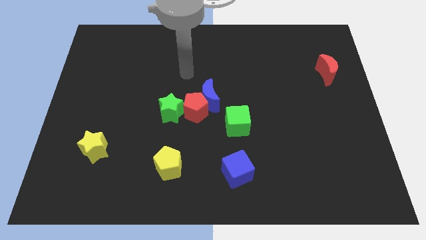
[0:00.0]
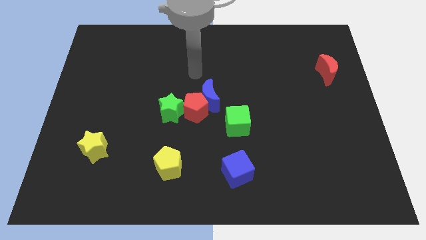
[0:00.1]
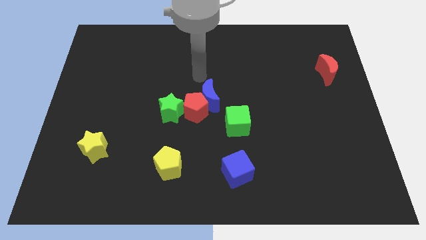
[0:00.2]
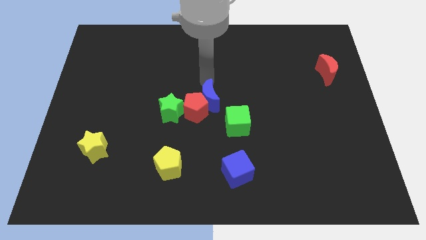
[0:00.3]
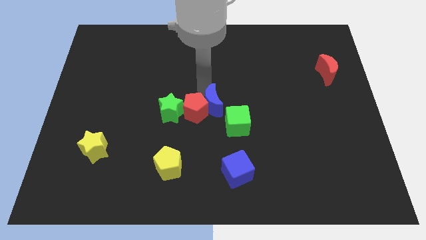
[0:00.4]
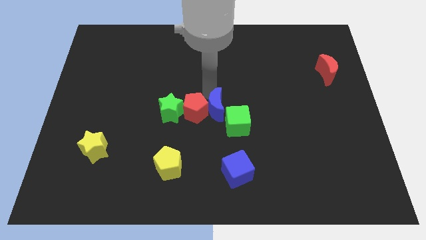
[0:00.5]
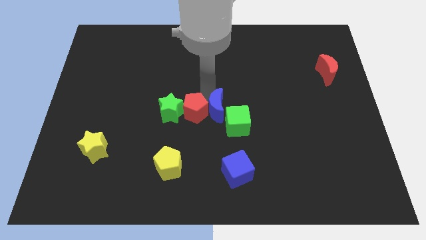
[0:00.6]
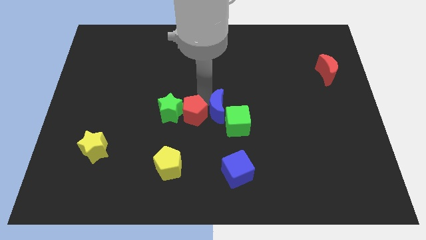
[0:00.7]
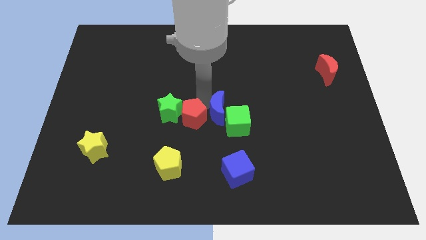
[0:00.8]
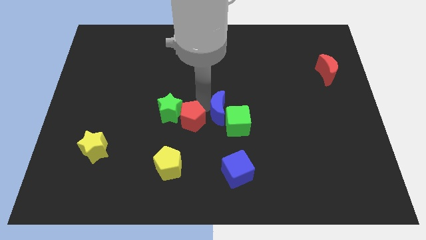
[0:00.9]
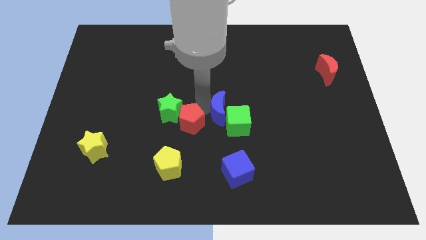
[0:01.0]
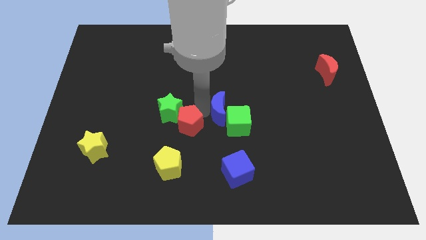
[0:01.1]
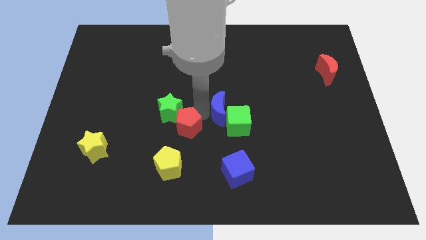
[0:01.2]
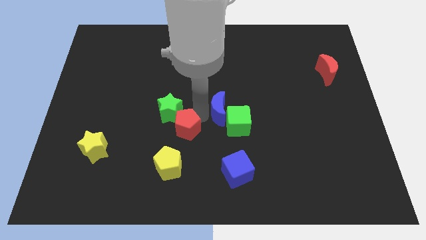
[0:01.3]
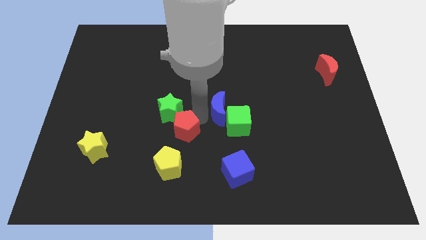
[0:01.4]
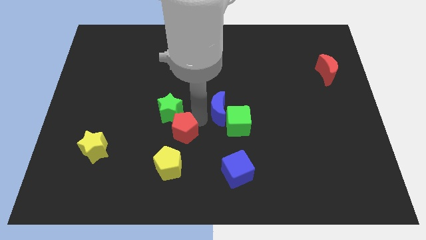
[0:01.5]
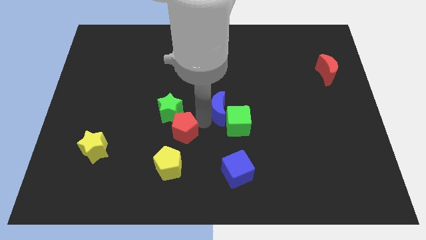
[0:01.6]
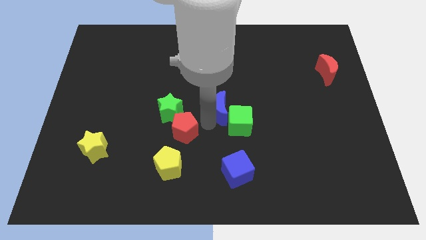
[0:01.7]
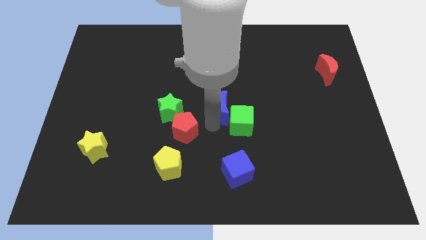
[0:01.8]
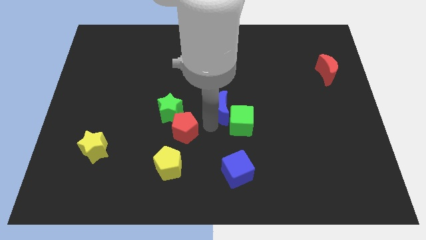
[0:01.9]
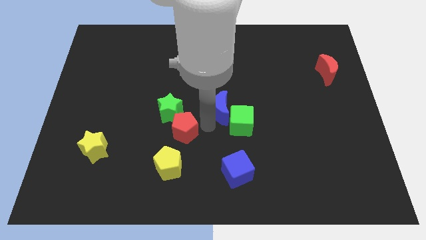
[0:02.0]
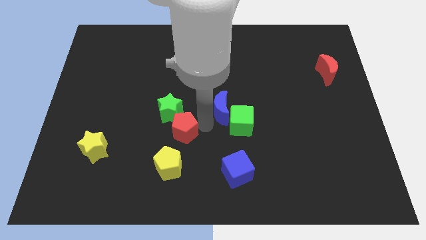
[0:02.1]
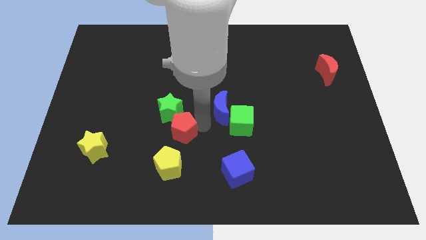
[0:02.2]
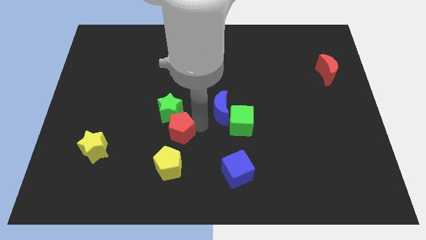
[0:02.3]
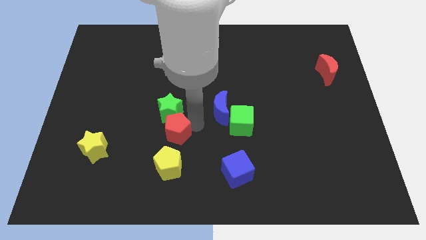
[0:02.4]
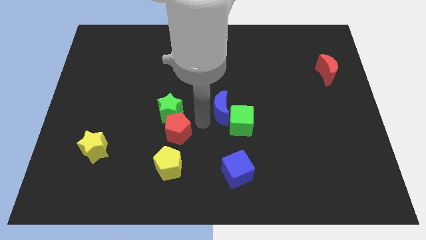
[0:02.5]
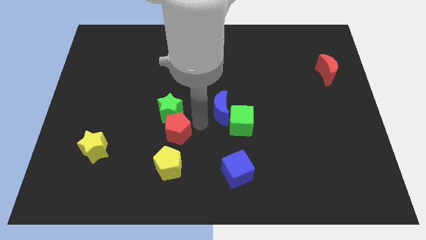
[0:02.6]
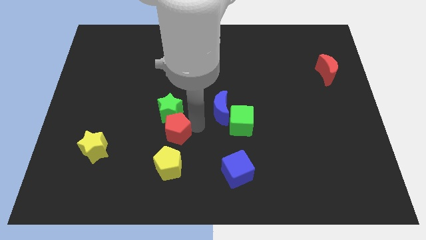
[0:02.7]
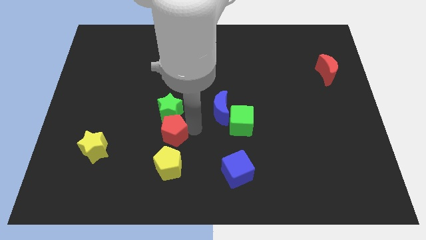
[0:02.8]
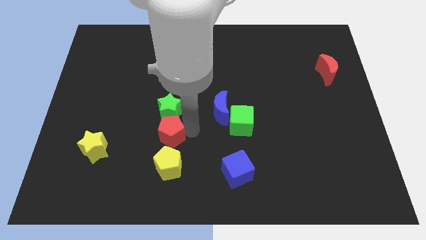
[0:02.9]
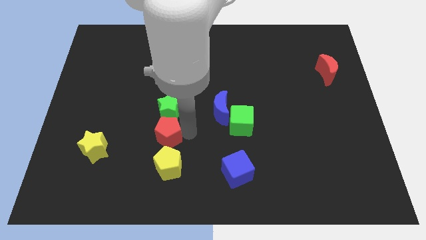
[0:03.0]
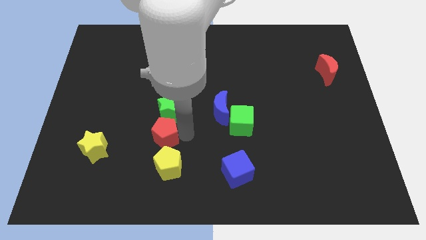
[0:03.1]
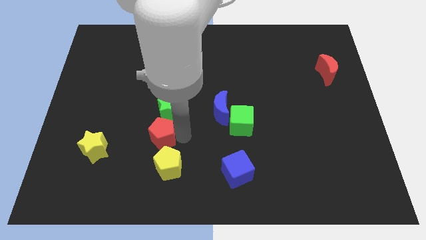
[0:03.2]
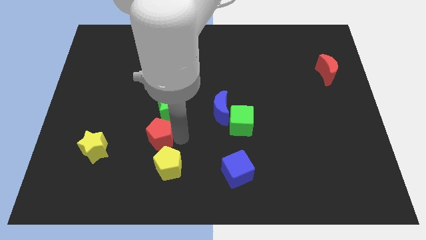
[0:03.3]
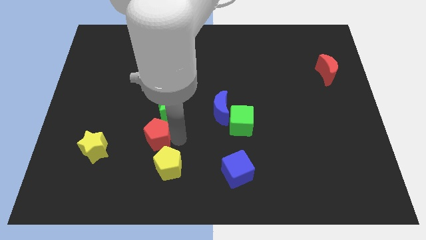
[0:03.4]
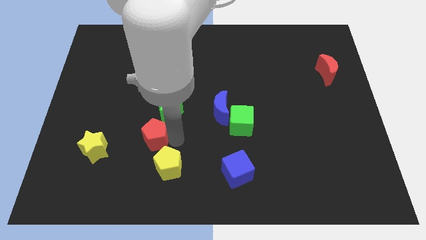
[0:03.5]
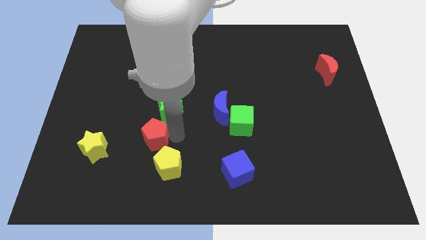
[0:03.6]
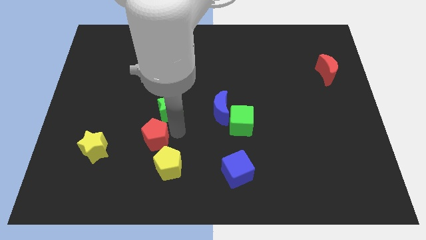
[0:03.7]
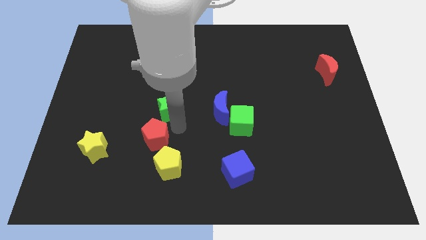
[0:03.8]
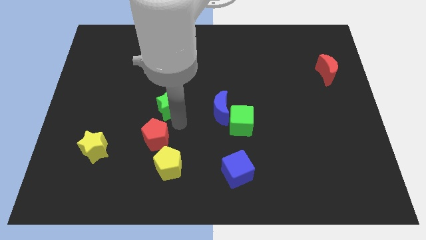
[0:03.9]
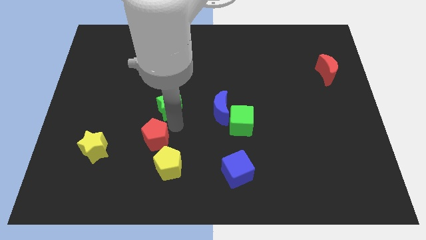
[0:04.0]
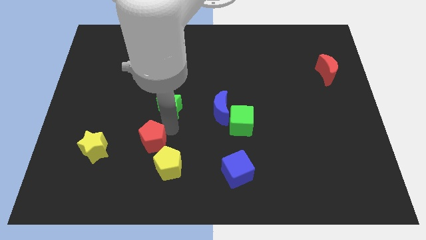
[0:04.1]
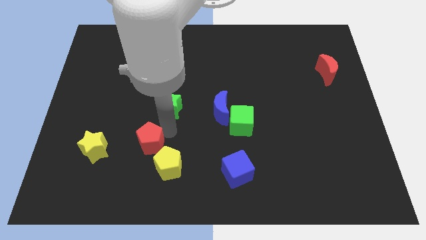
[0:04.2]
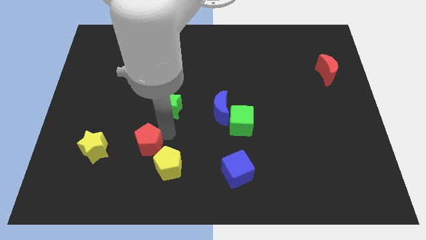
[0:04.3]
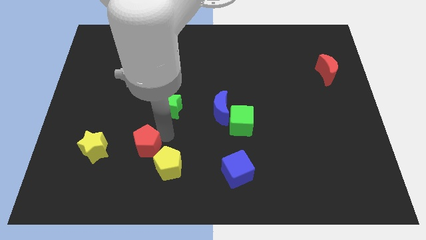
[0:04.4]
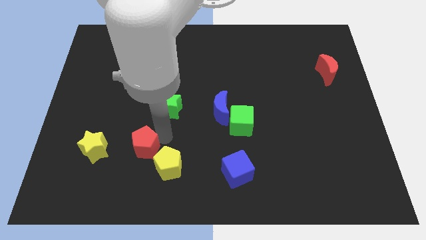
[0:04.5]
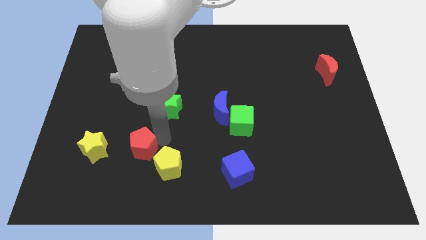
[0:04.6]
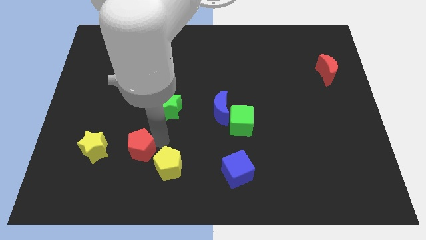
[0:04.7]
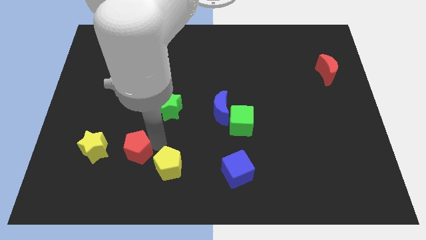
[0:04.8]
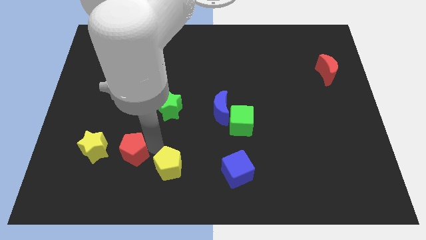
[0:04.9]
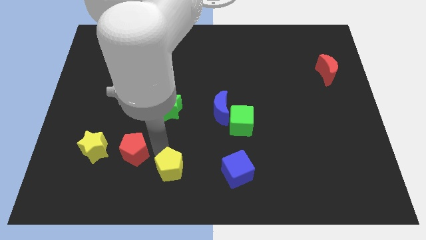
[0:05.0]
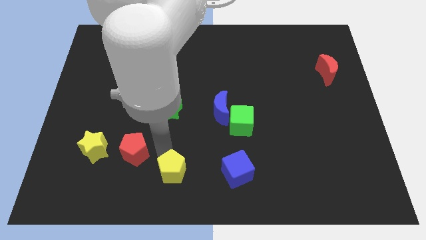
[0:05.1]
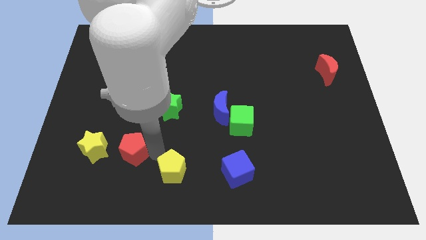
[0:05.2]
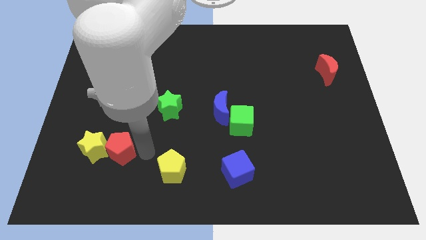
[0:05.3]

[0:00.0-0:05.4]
slide the red pentagon towards the yellow star

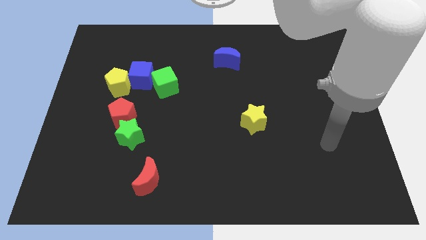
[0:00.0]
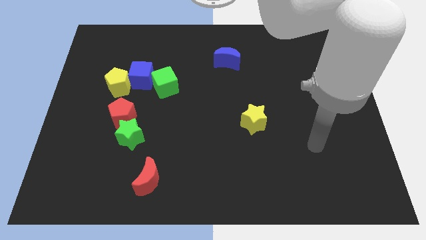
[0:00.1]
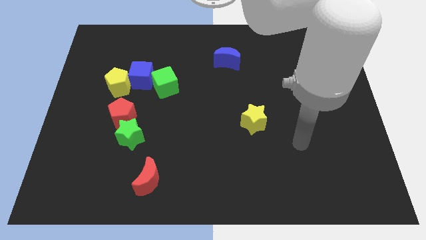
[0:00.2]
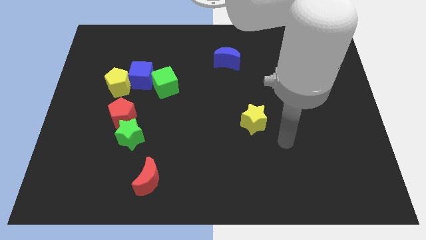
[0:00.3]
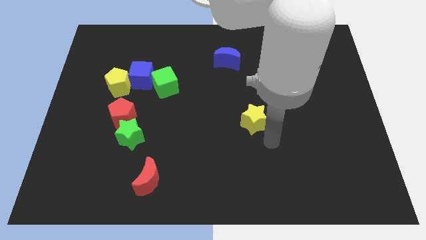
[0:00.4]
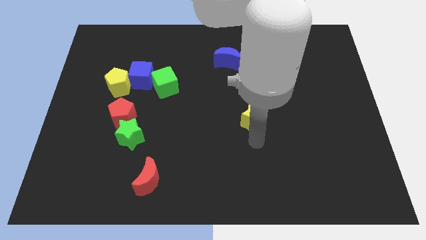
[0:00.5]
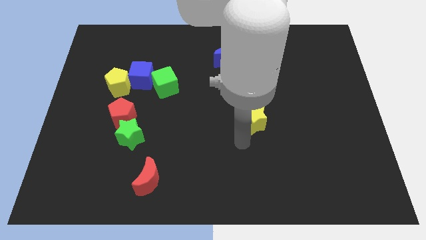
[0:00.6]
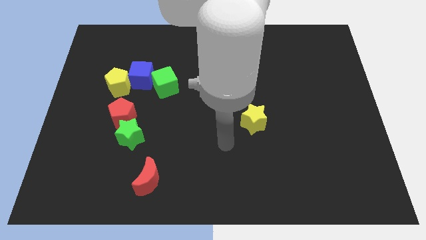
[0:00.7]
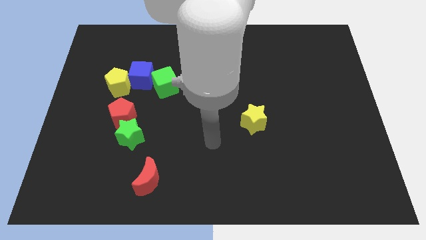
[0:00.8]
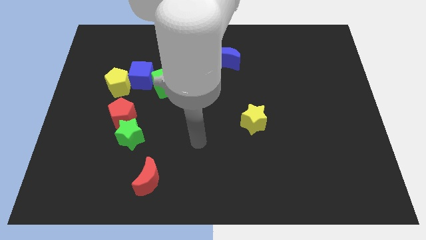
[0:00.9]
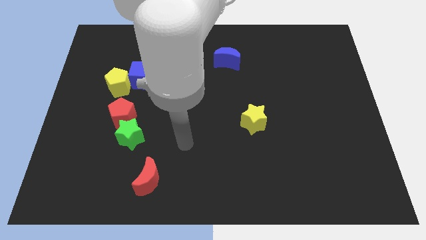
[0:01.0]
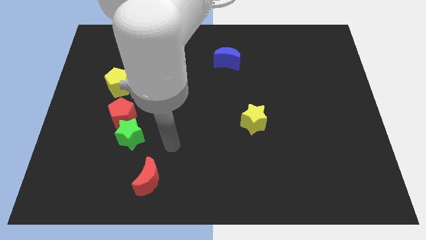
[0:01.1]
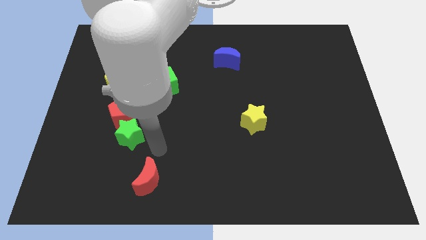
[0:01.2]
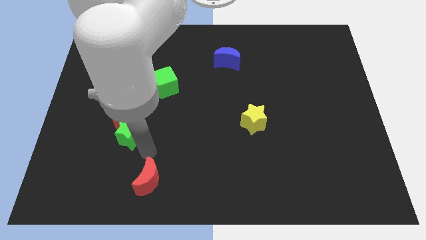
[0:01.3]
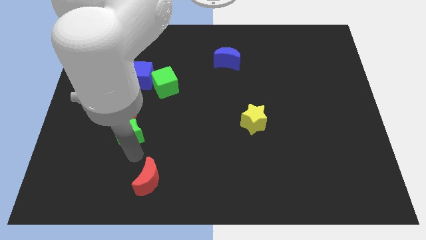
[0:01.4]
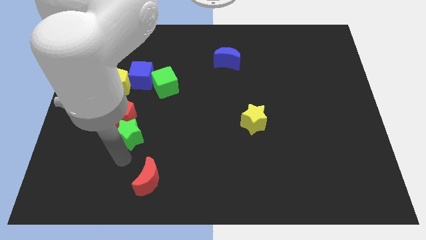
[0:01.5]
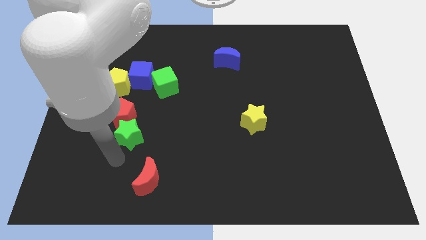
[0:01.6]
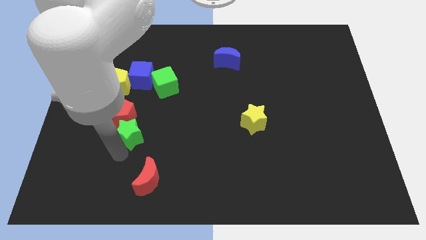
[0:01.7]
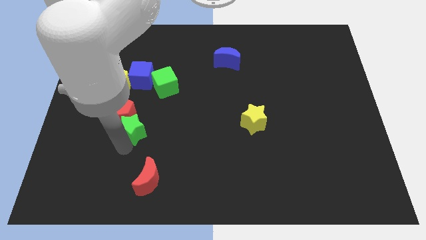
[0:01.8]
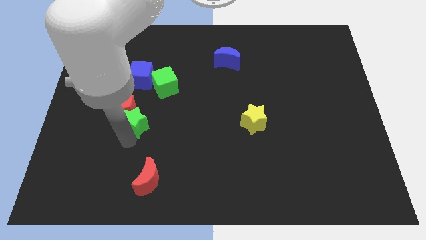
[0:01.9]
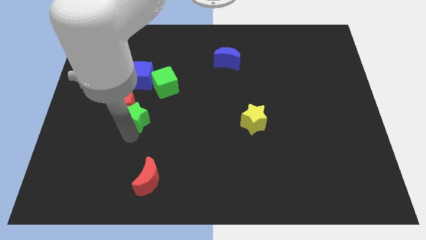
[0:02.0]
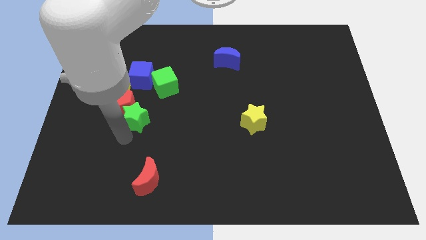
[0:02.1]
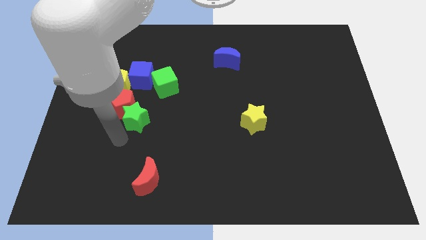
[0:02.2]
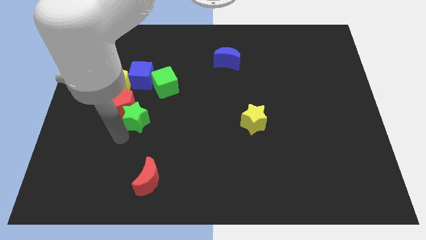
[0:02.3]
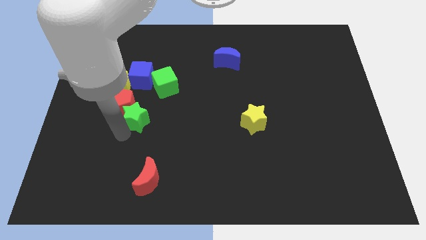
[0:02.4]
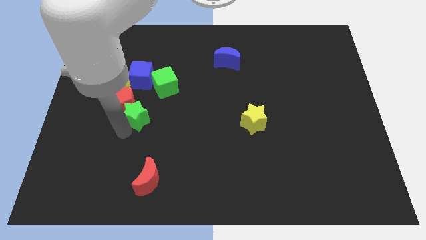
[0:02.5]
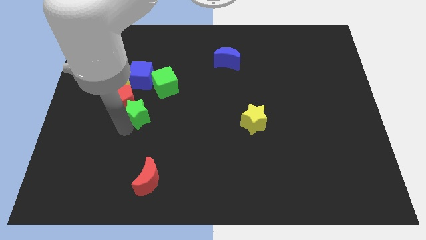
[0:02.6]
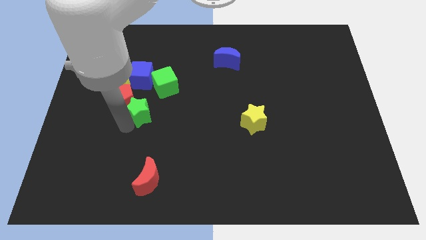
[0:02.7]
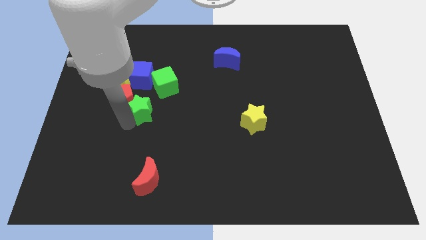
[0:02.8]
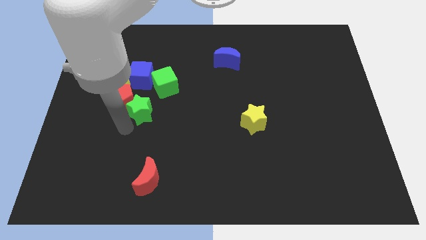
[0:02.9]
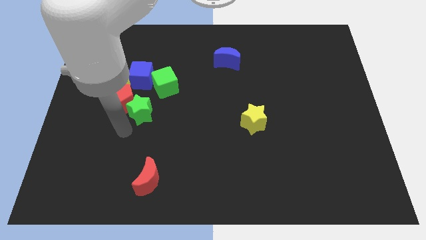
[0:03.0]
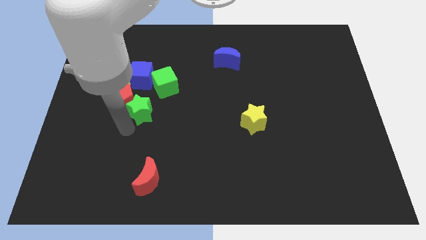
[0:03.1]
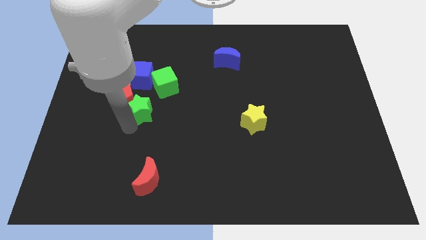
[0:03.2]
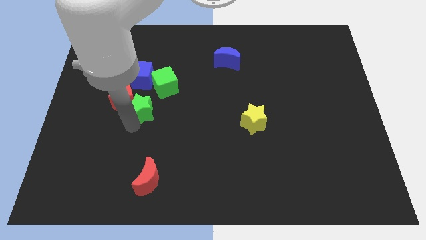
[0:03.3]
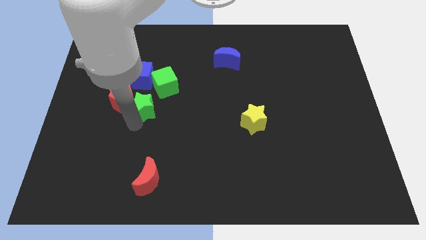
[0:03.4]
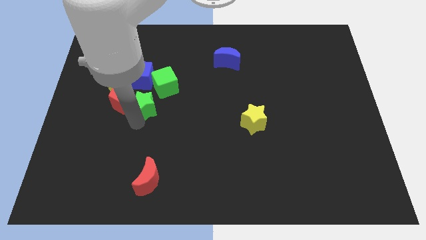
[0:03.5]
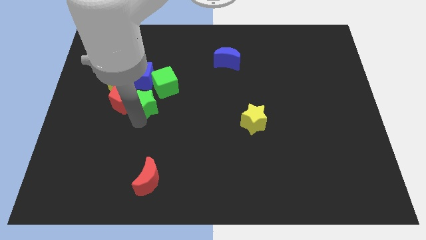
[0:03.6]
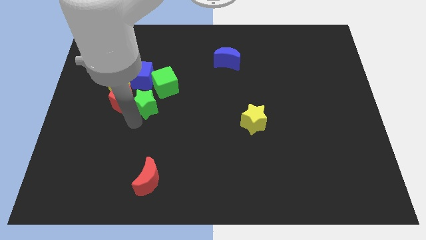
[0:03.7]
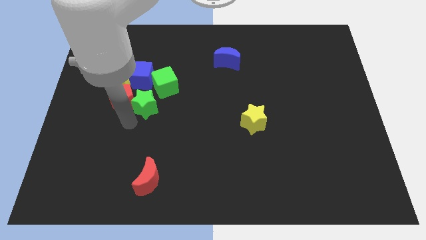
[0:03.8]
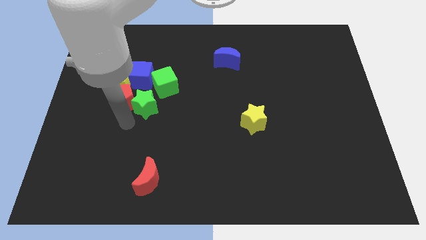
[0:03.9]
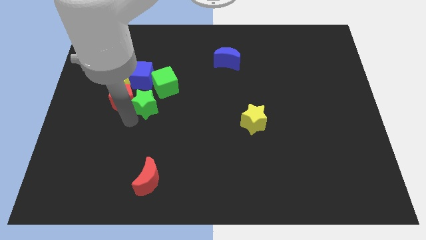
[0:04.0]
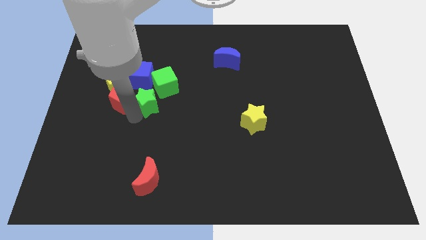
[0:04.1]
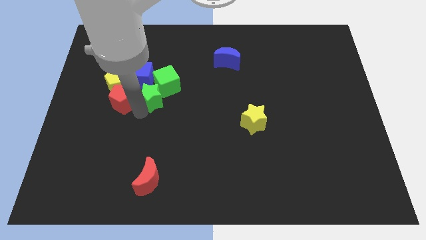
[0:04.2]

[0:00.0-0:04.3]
put the green star close to the green cube
